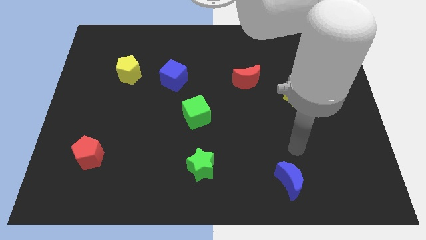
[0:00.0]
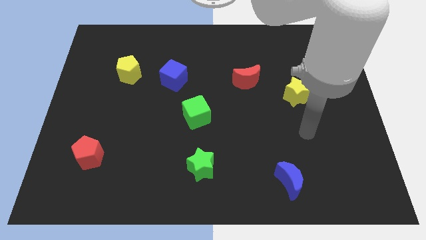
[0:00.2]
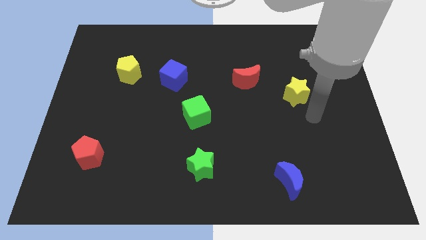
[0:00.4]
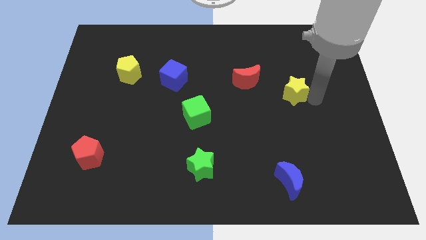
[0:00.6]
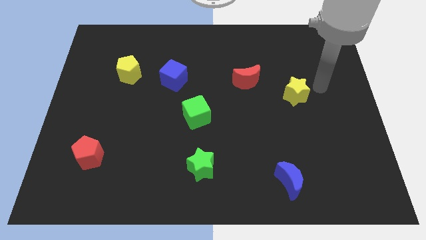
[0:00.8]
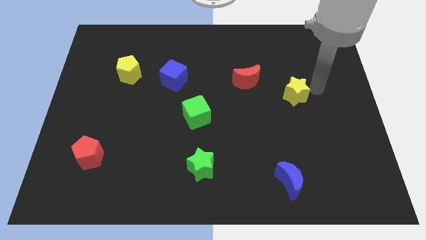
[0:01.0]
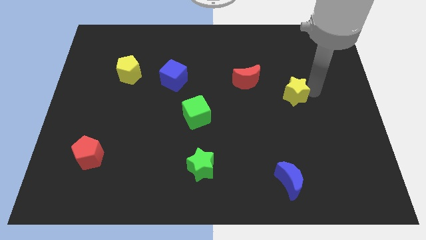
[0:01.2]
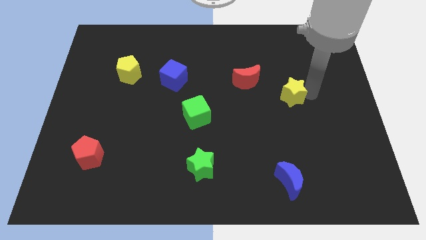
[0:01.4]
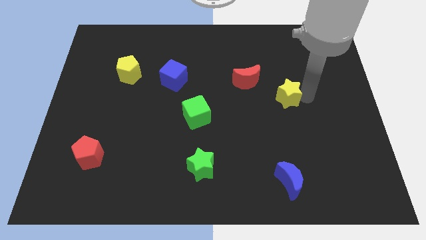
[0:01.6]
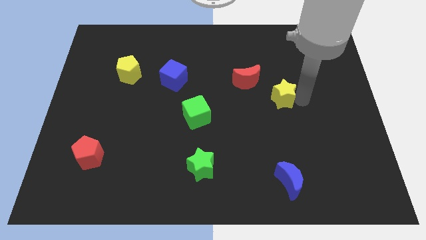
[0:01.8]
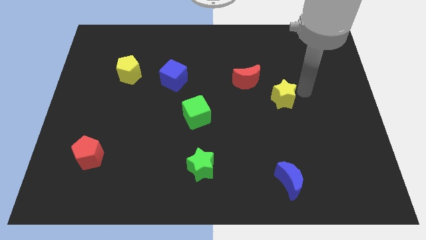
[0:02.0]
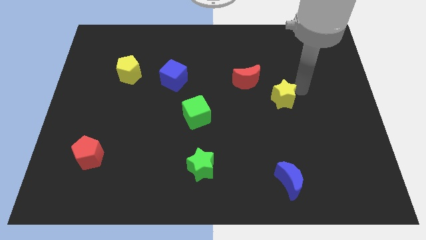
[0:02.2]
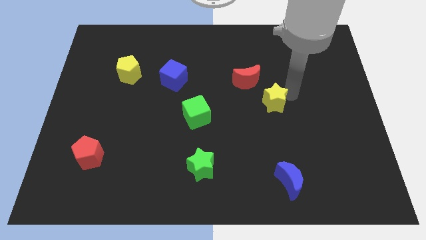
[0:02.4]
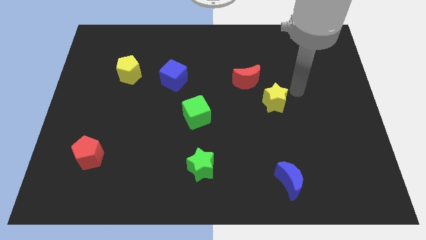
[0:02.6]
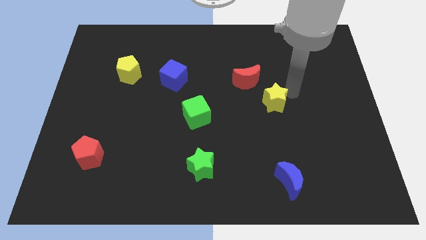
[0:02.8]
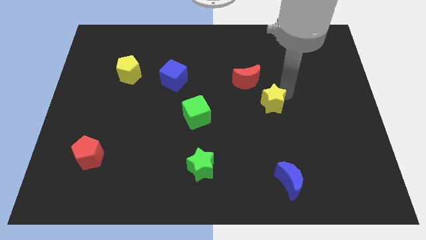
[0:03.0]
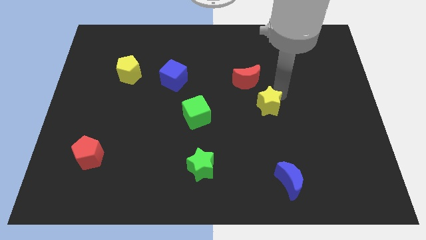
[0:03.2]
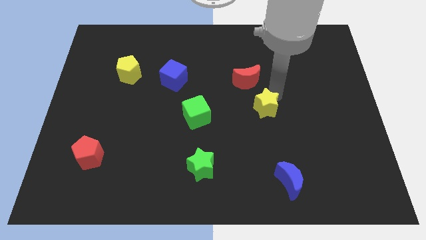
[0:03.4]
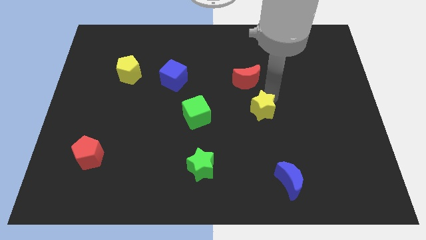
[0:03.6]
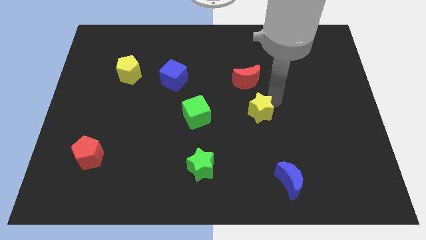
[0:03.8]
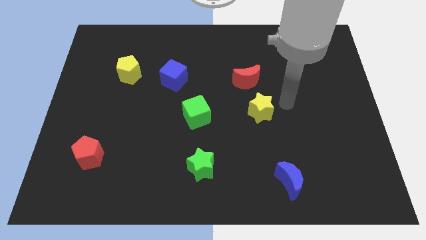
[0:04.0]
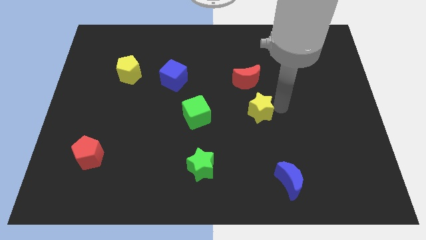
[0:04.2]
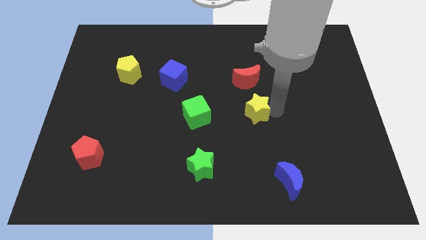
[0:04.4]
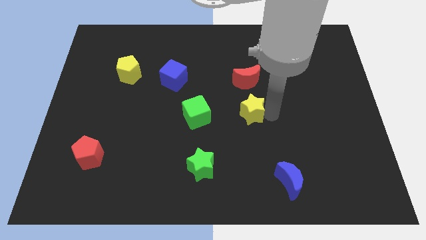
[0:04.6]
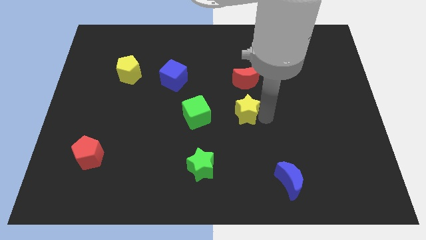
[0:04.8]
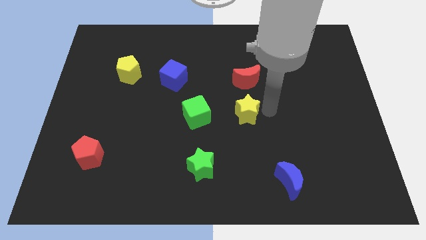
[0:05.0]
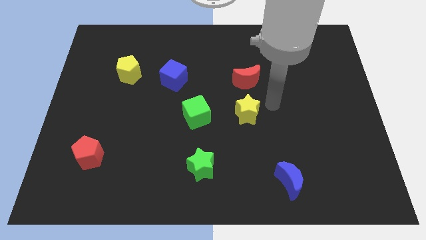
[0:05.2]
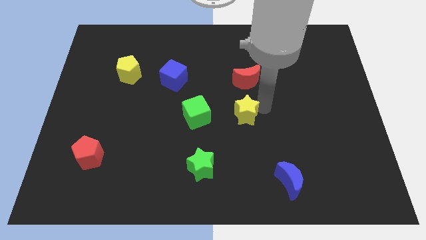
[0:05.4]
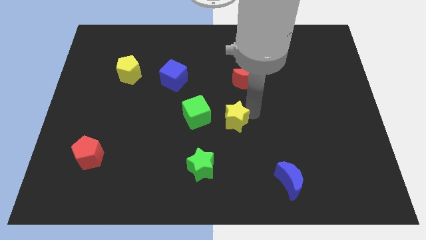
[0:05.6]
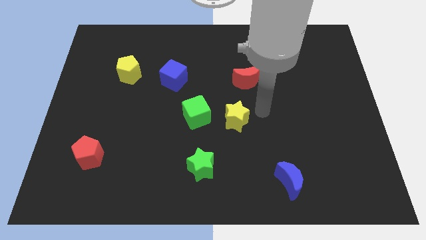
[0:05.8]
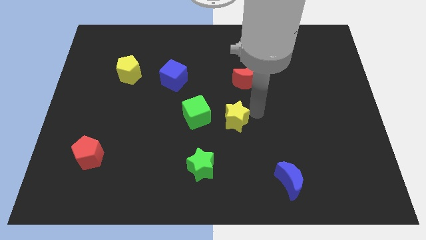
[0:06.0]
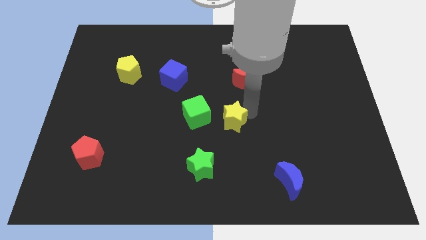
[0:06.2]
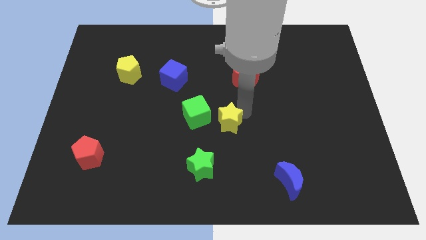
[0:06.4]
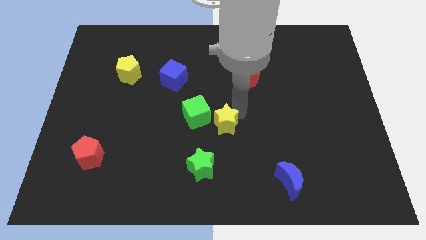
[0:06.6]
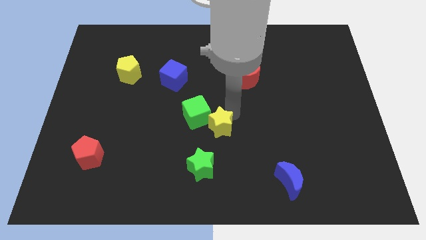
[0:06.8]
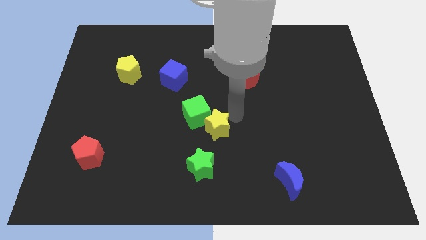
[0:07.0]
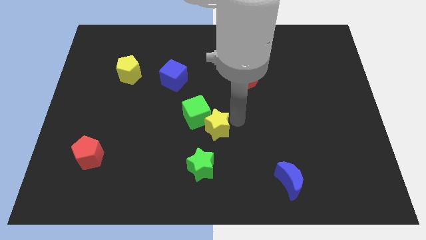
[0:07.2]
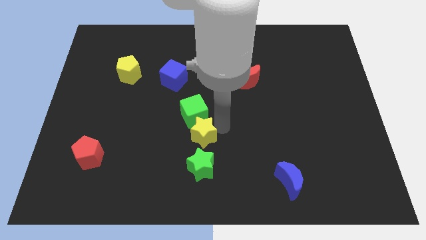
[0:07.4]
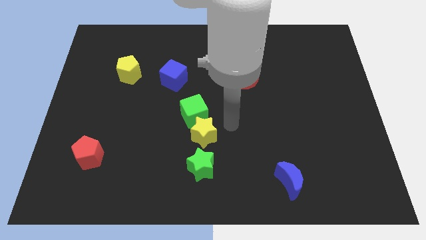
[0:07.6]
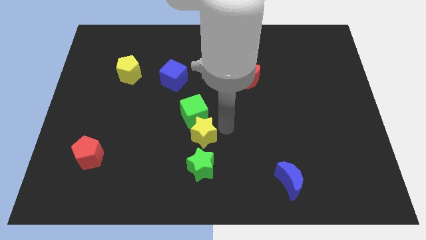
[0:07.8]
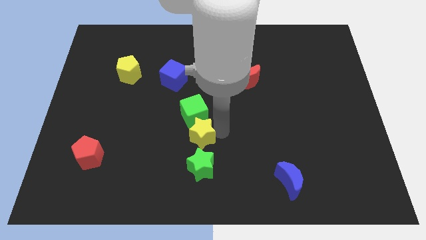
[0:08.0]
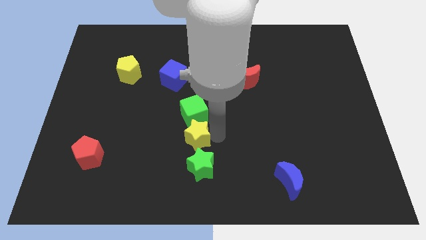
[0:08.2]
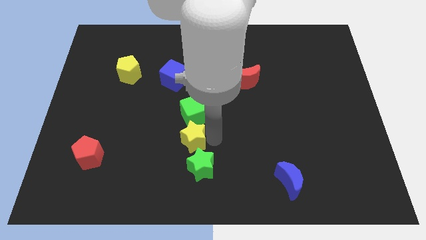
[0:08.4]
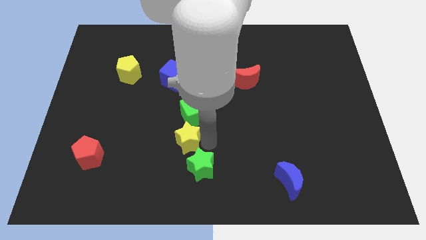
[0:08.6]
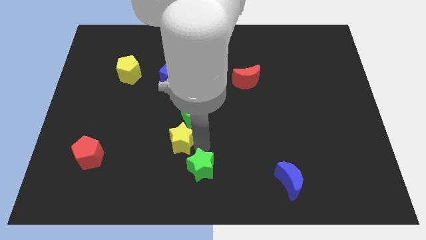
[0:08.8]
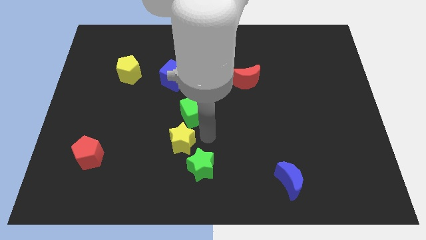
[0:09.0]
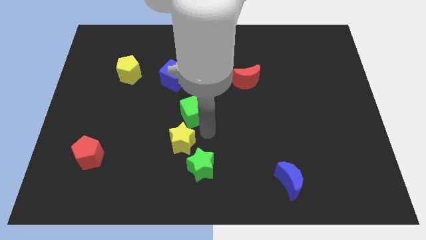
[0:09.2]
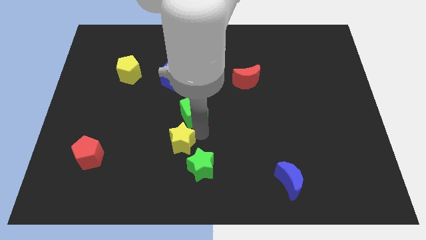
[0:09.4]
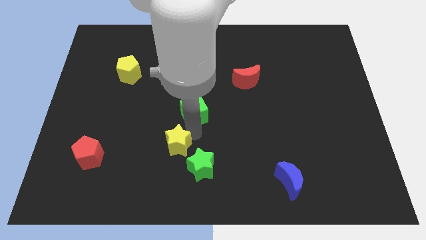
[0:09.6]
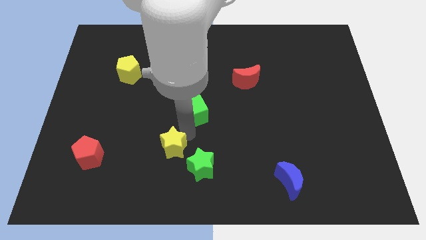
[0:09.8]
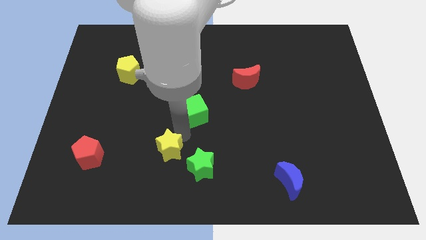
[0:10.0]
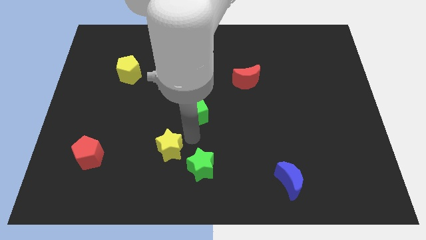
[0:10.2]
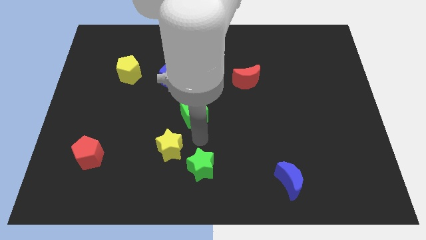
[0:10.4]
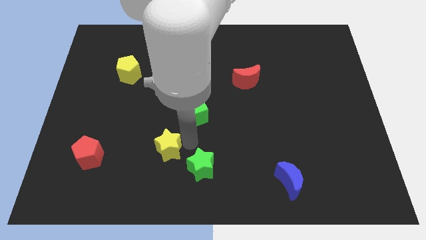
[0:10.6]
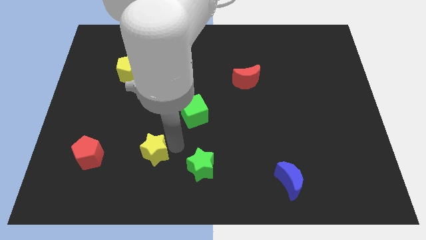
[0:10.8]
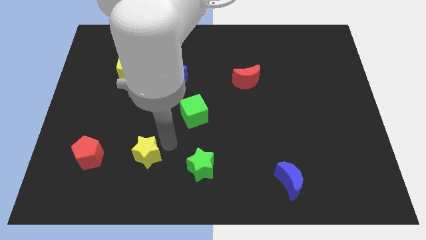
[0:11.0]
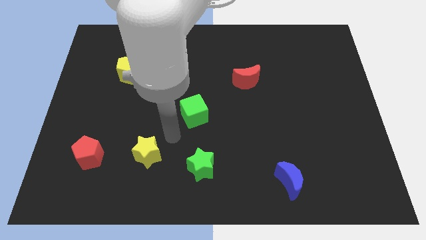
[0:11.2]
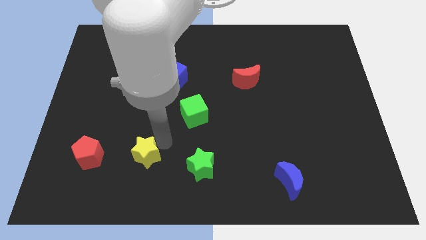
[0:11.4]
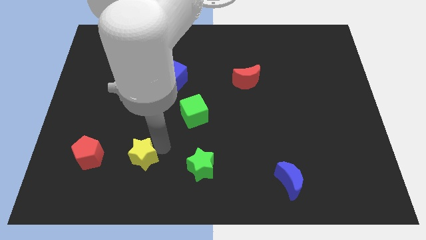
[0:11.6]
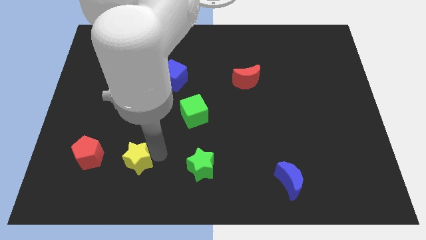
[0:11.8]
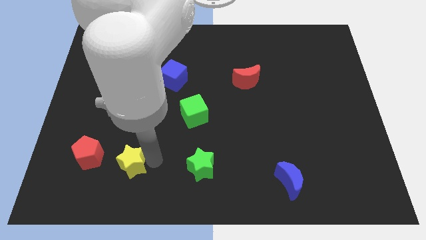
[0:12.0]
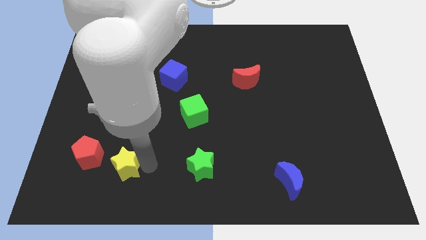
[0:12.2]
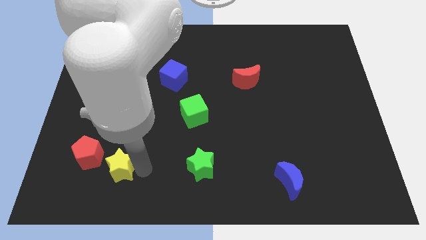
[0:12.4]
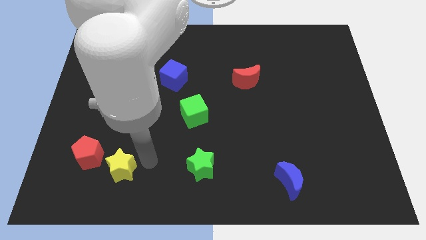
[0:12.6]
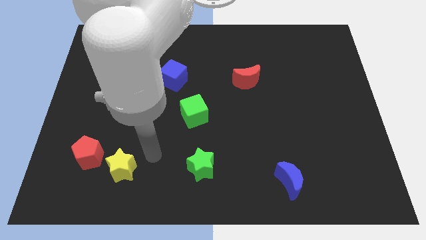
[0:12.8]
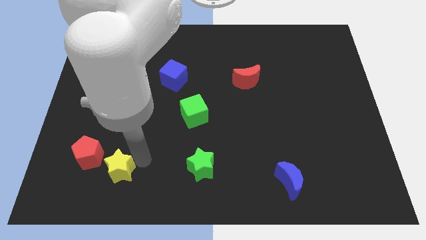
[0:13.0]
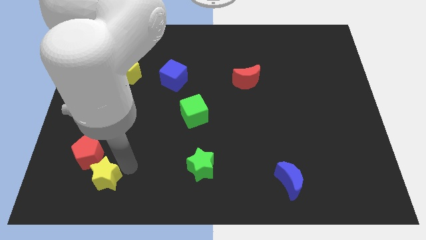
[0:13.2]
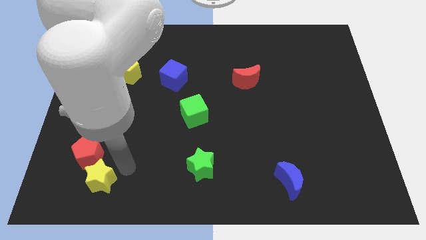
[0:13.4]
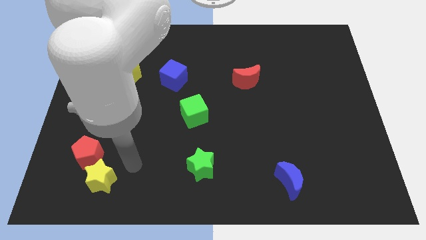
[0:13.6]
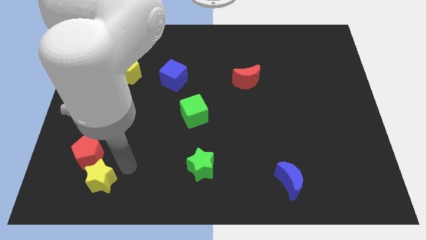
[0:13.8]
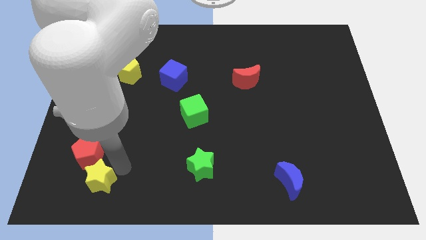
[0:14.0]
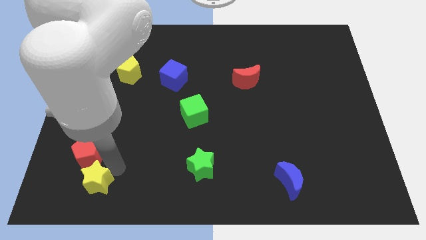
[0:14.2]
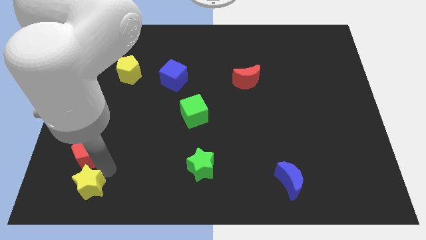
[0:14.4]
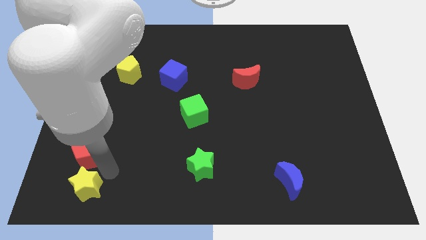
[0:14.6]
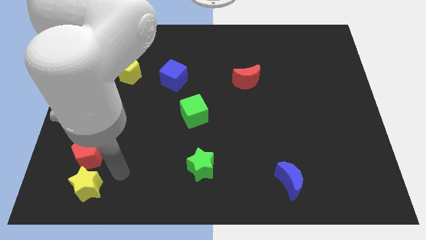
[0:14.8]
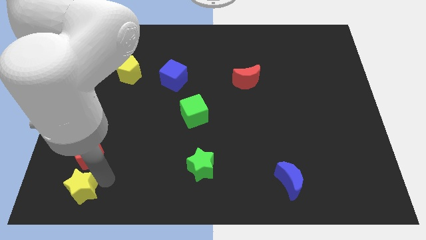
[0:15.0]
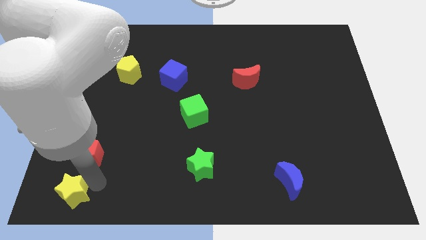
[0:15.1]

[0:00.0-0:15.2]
move the yellow star to the bottom left corner

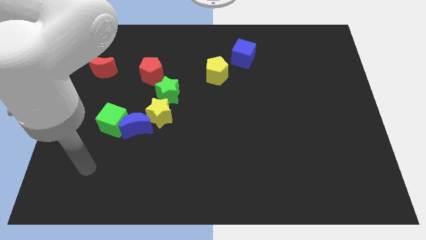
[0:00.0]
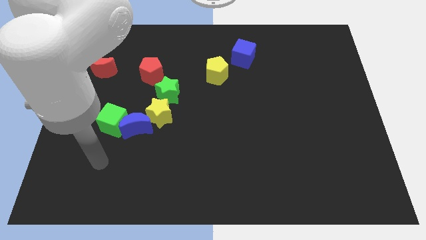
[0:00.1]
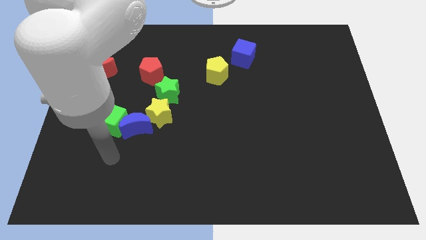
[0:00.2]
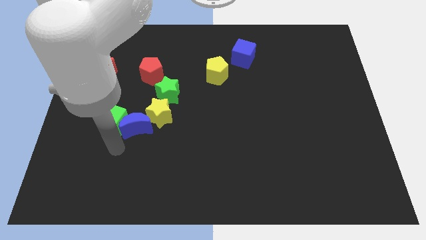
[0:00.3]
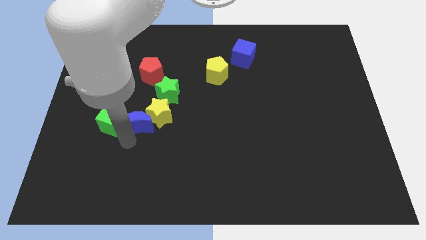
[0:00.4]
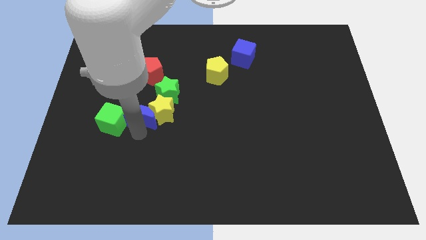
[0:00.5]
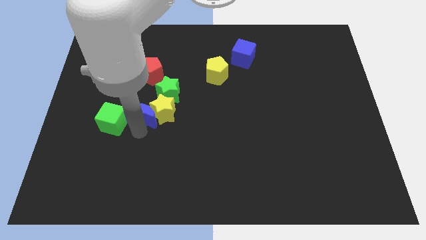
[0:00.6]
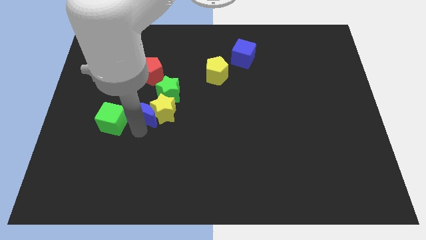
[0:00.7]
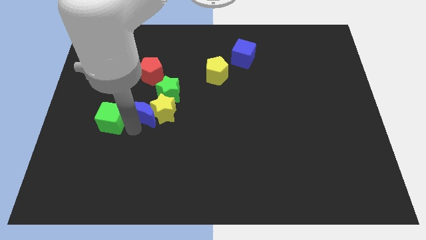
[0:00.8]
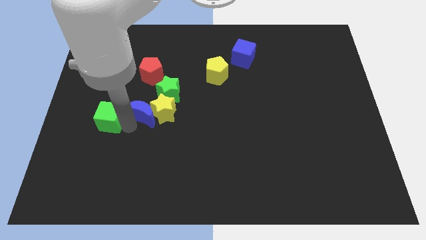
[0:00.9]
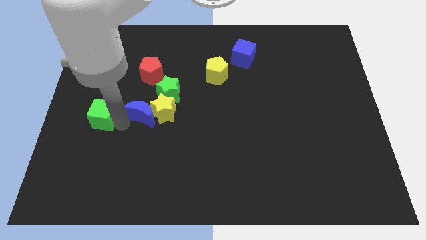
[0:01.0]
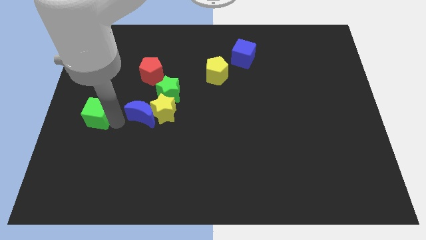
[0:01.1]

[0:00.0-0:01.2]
slide the green cube to the center left
